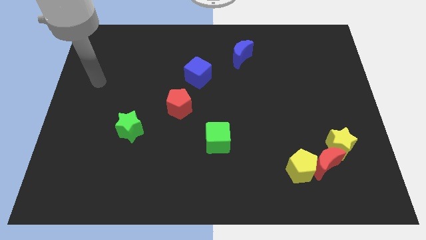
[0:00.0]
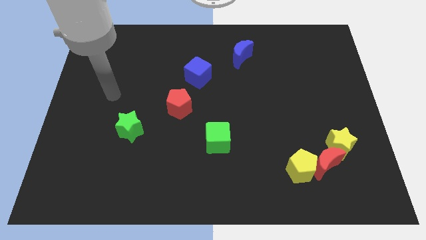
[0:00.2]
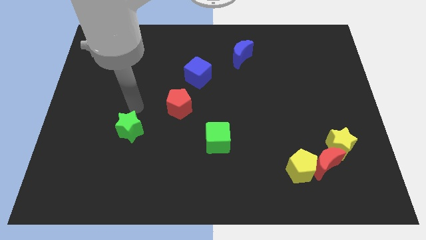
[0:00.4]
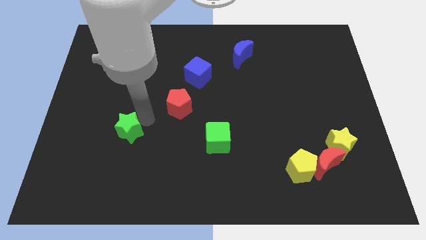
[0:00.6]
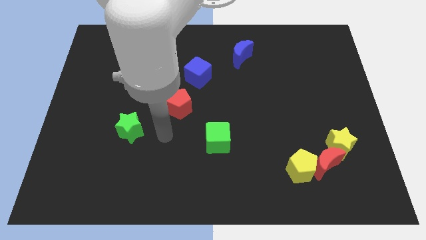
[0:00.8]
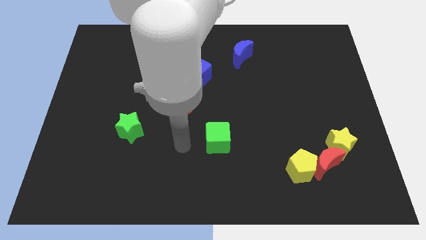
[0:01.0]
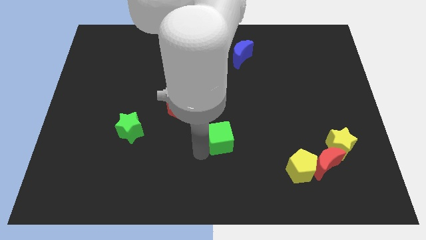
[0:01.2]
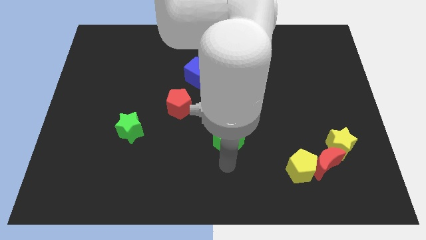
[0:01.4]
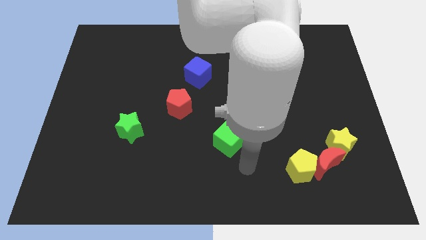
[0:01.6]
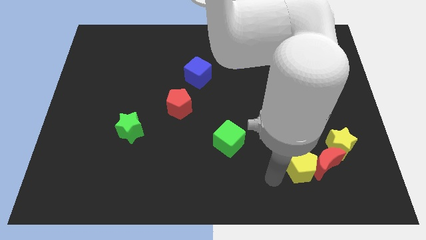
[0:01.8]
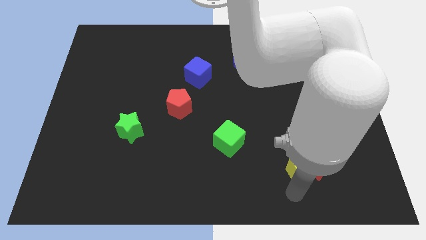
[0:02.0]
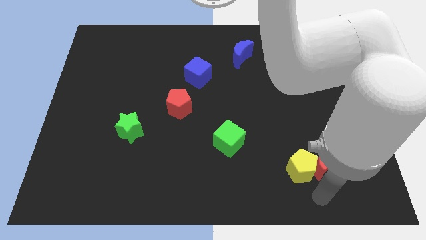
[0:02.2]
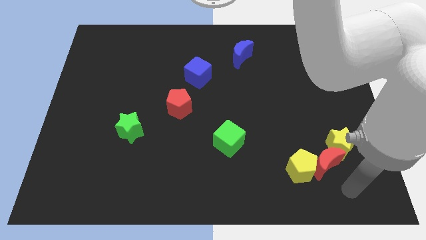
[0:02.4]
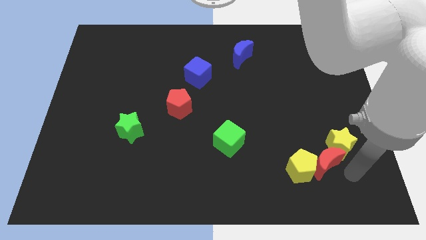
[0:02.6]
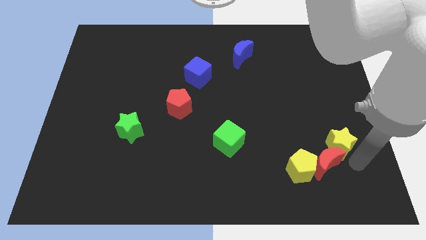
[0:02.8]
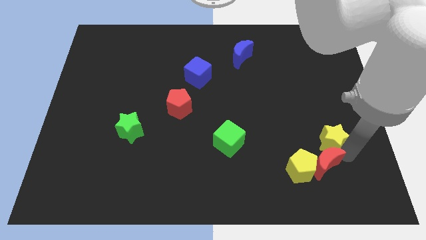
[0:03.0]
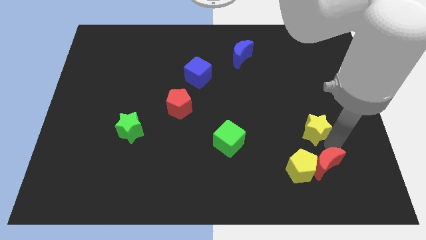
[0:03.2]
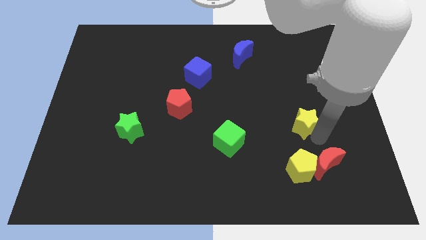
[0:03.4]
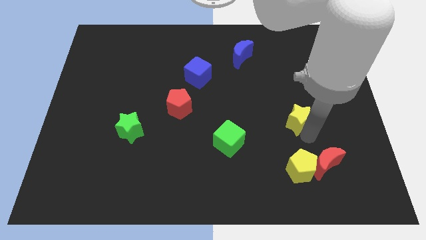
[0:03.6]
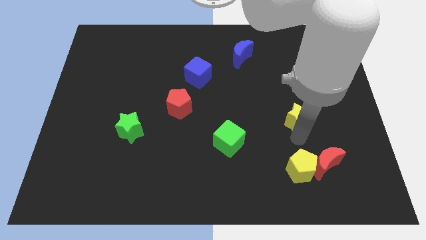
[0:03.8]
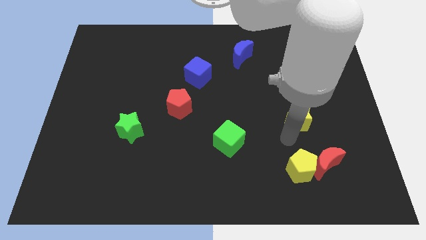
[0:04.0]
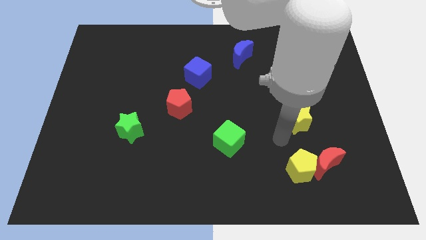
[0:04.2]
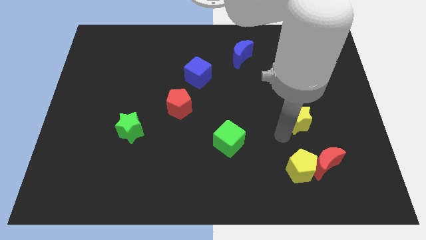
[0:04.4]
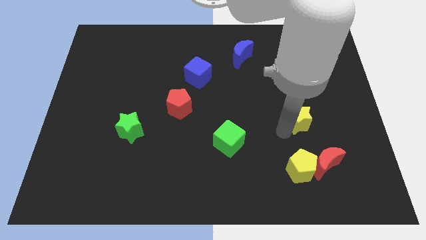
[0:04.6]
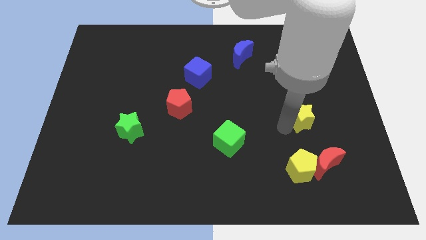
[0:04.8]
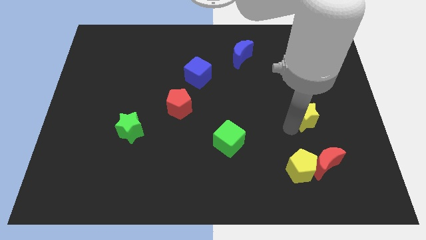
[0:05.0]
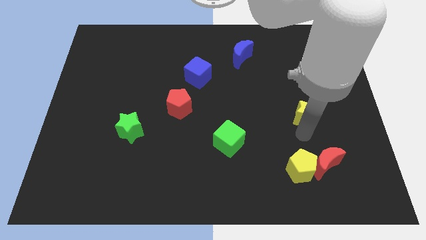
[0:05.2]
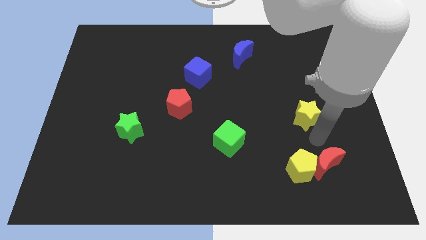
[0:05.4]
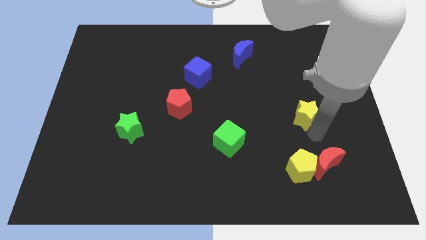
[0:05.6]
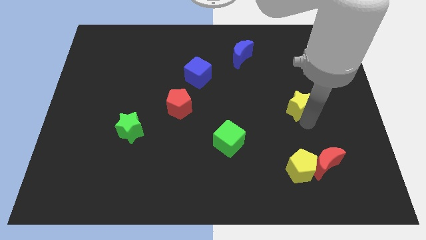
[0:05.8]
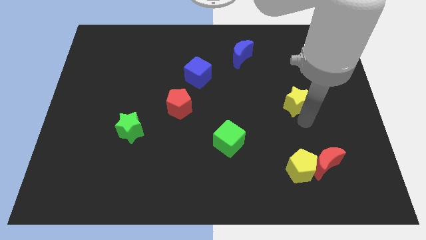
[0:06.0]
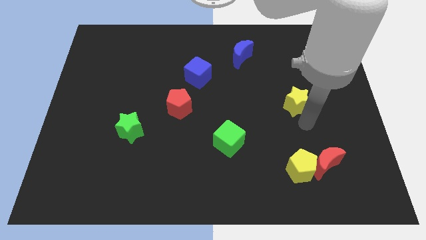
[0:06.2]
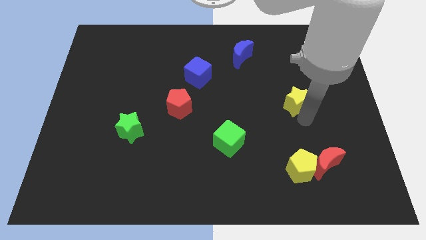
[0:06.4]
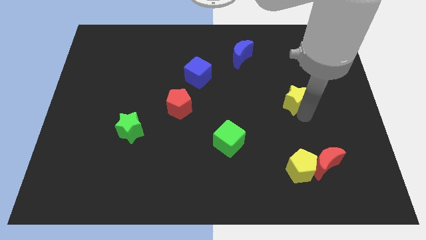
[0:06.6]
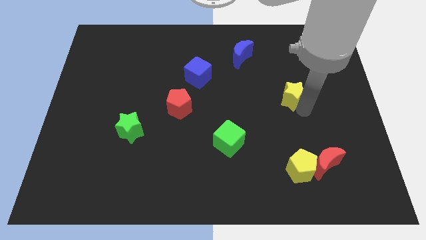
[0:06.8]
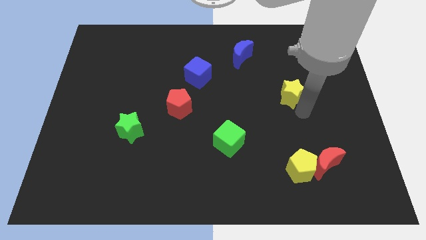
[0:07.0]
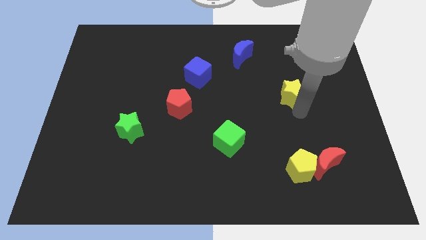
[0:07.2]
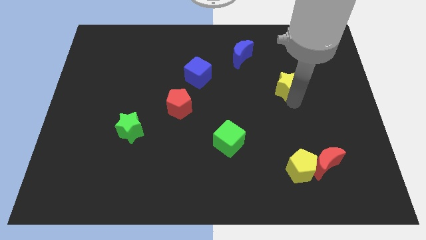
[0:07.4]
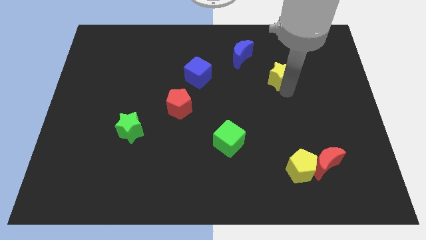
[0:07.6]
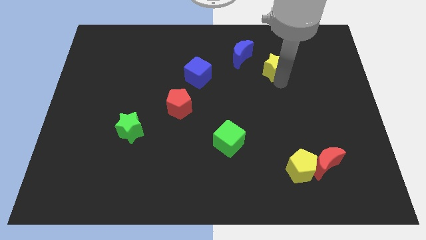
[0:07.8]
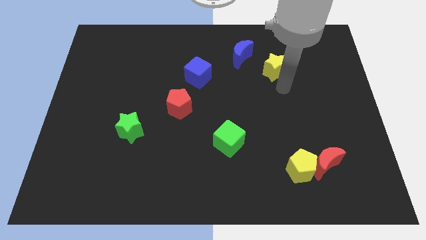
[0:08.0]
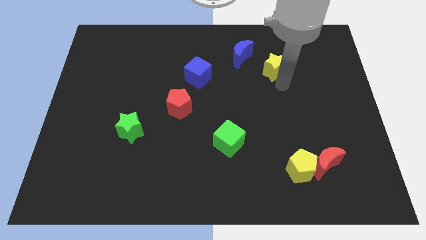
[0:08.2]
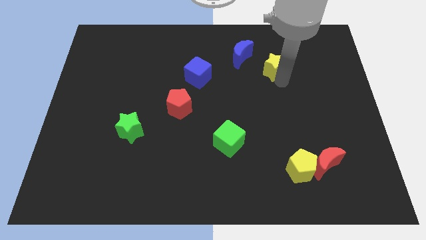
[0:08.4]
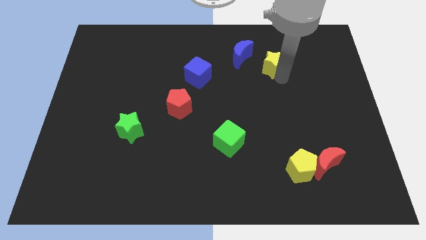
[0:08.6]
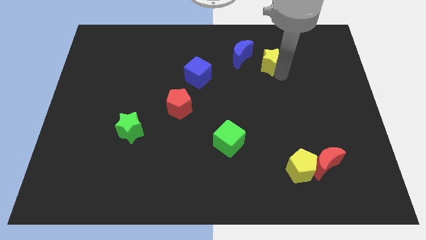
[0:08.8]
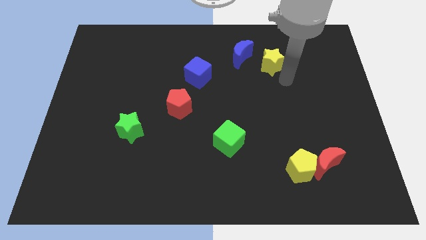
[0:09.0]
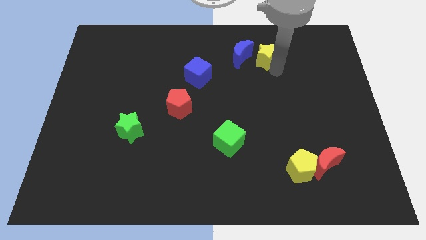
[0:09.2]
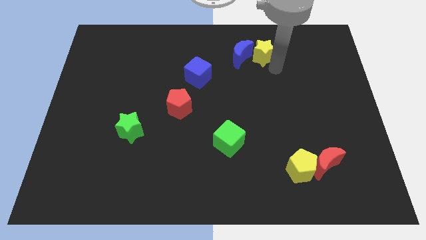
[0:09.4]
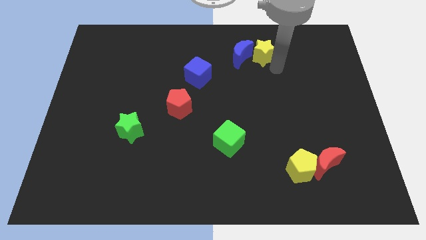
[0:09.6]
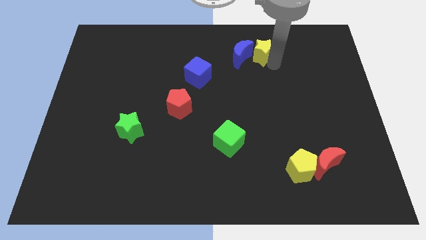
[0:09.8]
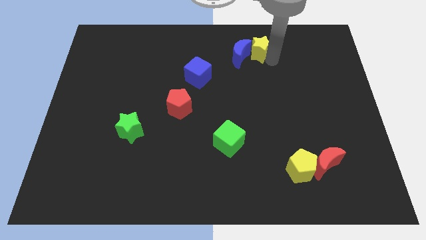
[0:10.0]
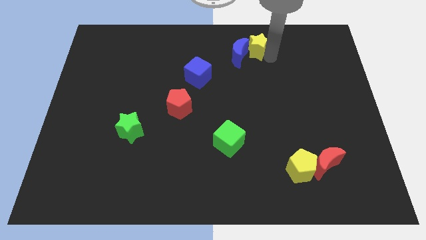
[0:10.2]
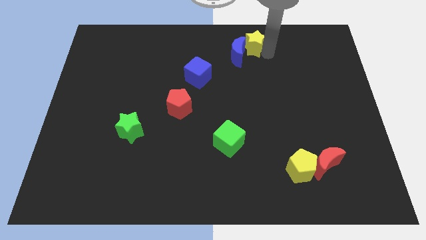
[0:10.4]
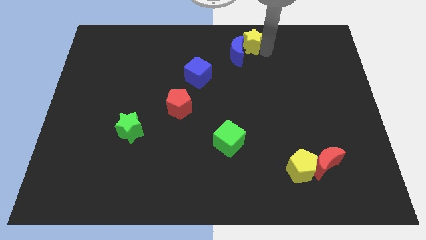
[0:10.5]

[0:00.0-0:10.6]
push the yellow star to the towards your base

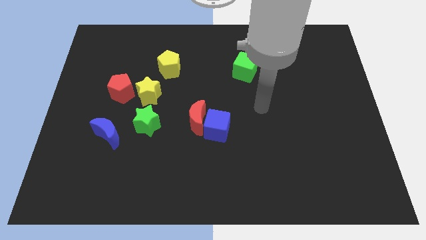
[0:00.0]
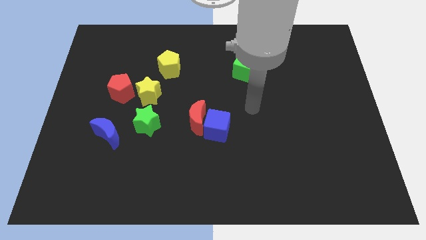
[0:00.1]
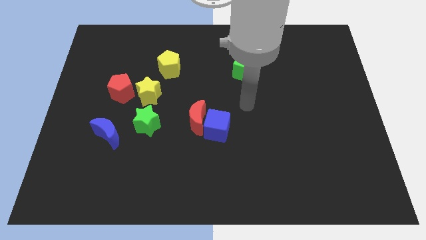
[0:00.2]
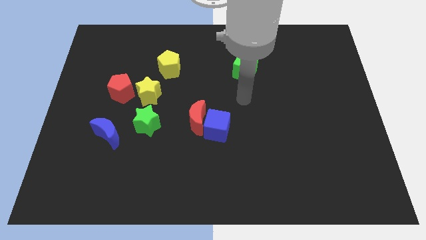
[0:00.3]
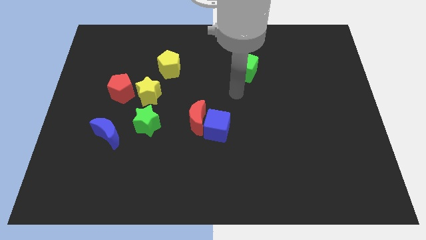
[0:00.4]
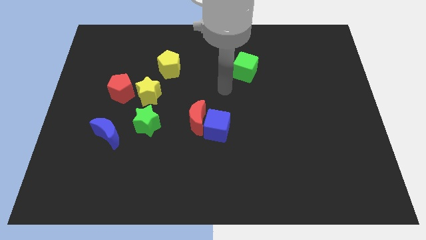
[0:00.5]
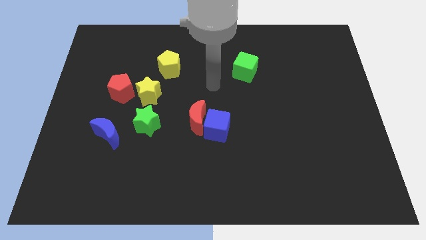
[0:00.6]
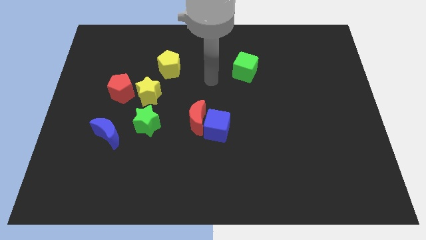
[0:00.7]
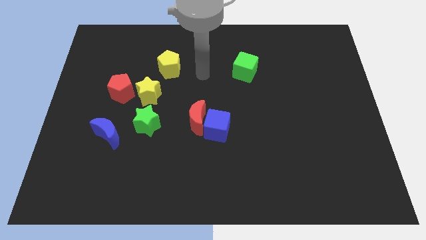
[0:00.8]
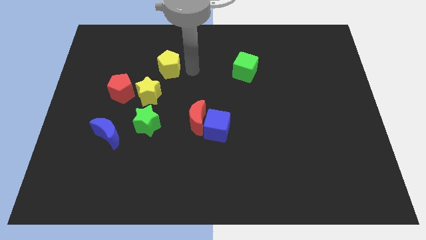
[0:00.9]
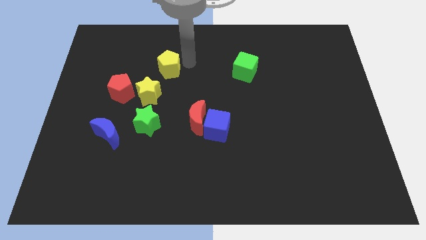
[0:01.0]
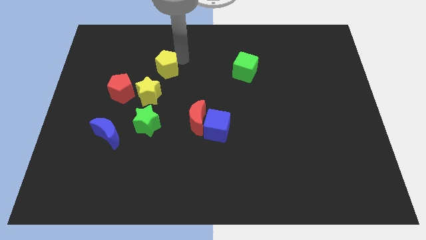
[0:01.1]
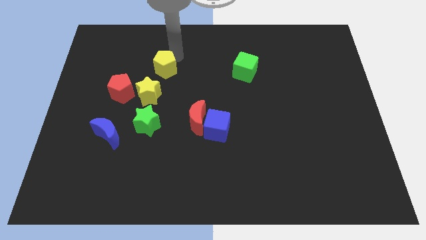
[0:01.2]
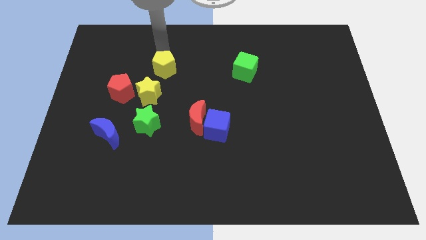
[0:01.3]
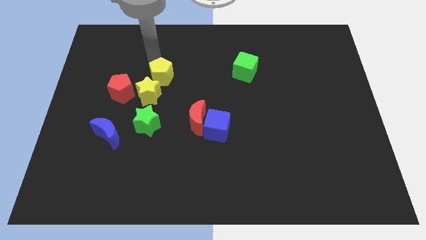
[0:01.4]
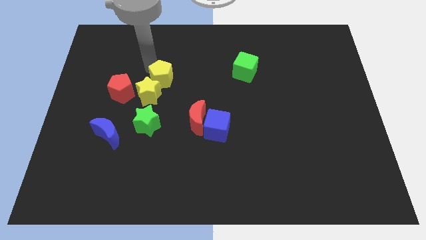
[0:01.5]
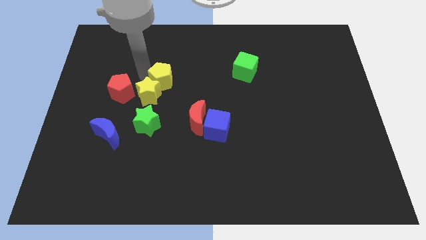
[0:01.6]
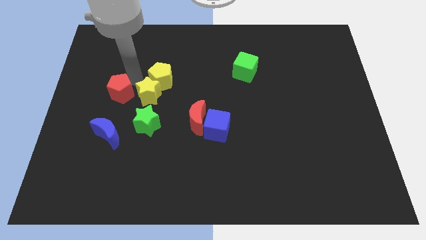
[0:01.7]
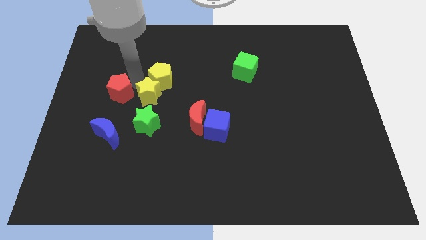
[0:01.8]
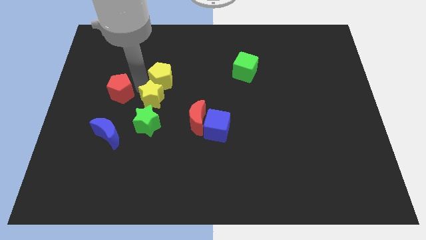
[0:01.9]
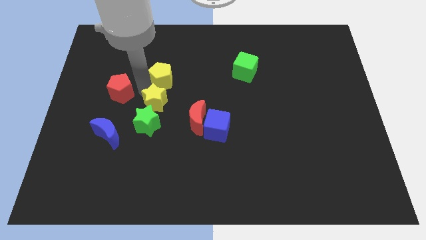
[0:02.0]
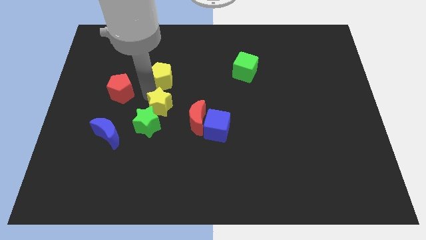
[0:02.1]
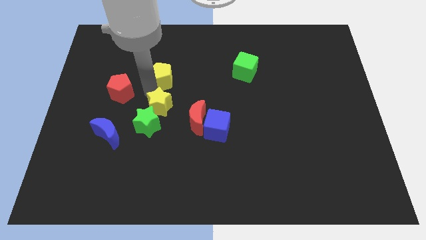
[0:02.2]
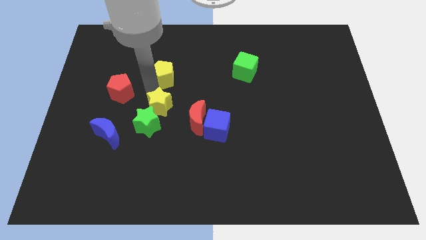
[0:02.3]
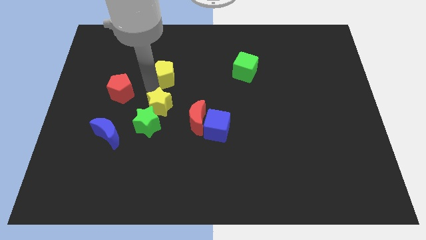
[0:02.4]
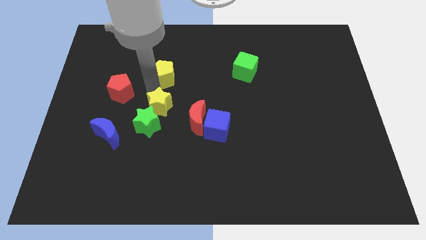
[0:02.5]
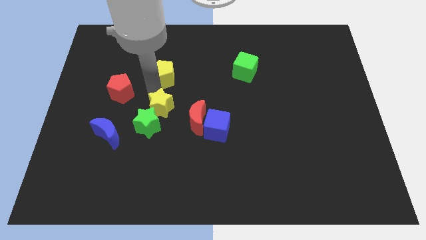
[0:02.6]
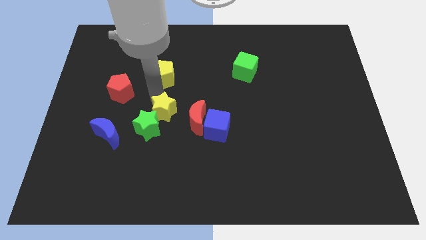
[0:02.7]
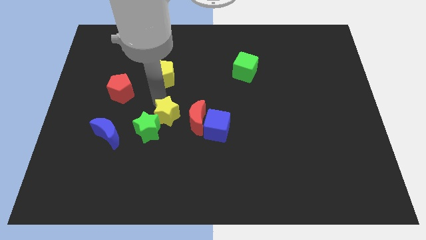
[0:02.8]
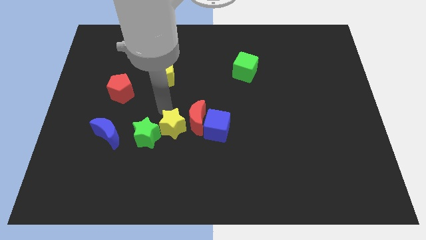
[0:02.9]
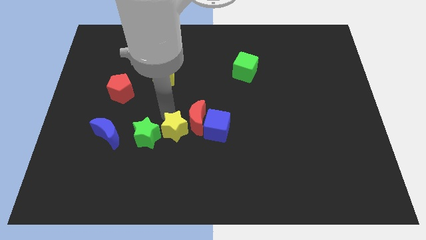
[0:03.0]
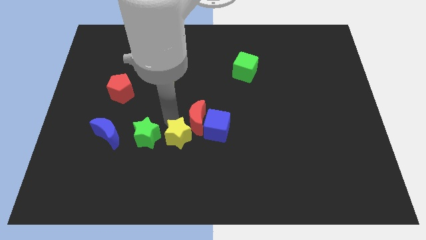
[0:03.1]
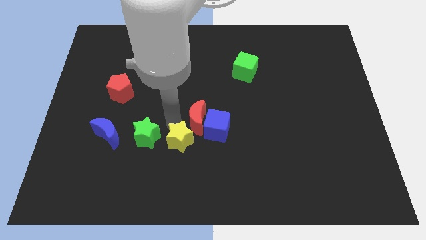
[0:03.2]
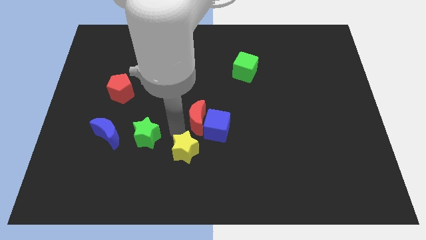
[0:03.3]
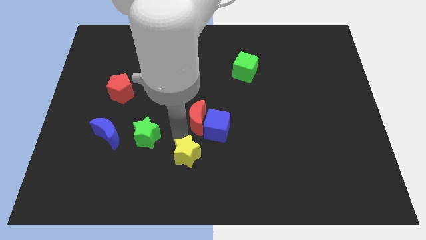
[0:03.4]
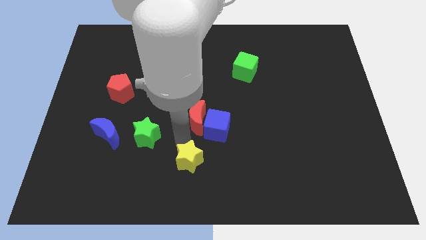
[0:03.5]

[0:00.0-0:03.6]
push the yellow star to the bottom side
